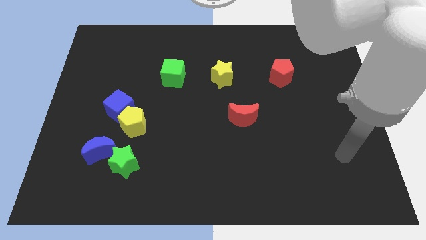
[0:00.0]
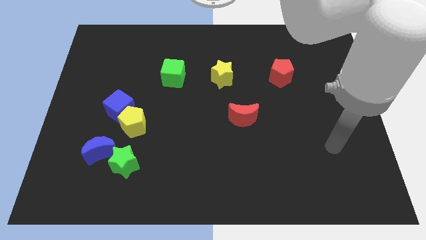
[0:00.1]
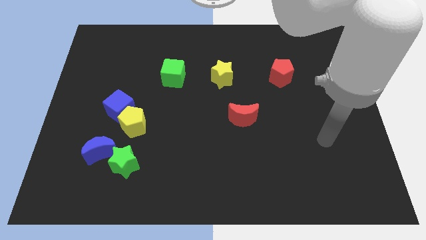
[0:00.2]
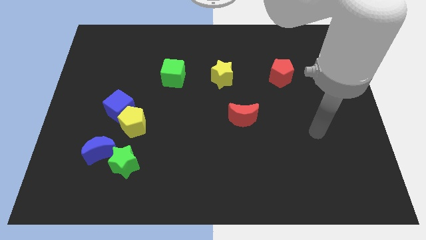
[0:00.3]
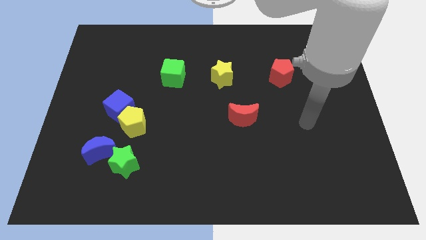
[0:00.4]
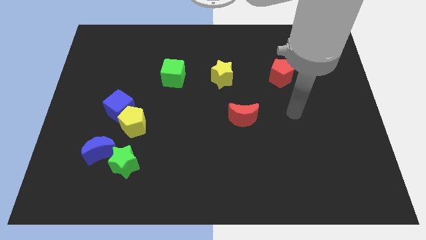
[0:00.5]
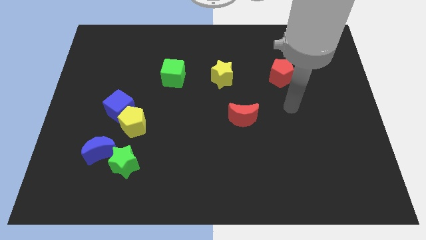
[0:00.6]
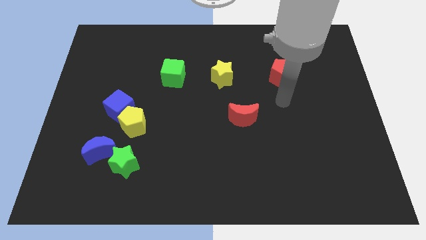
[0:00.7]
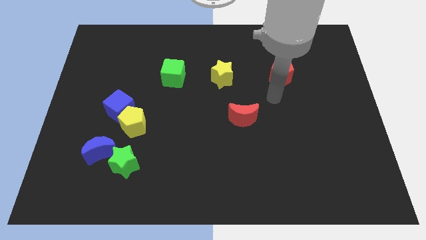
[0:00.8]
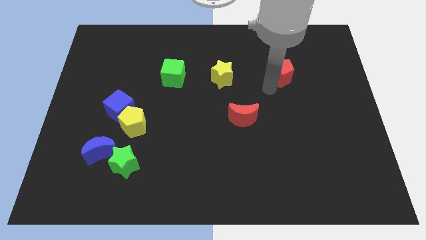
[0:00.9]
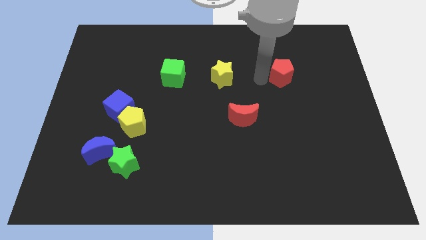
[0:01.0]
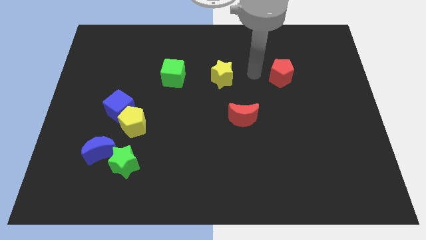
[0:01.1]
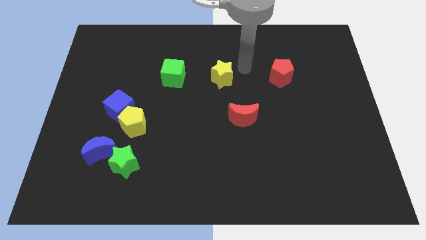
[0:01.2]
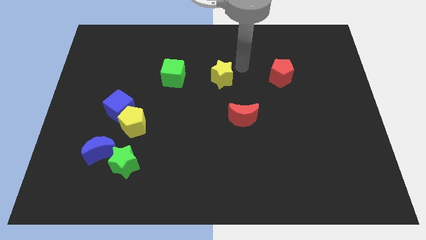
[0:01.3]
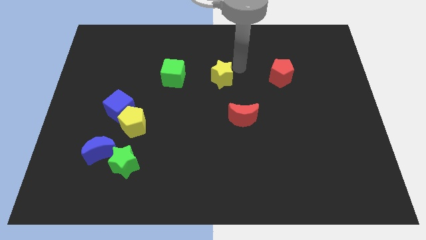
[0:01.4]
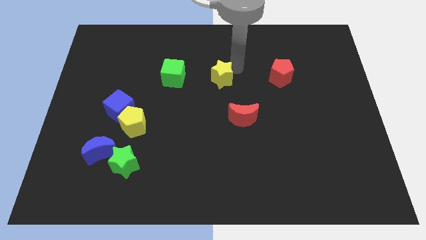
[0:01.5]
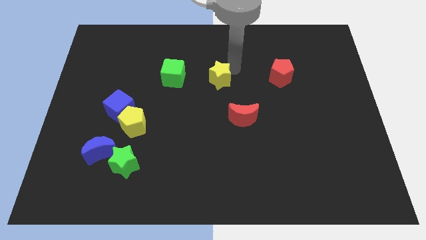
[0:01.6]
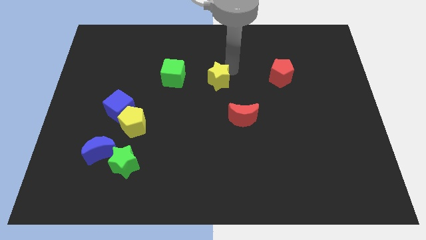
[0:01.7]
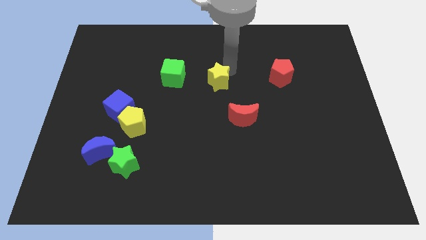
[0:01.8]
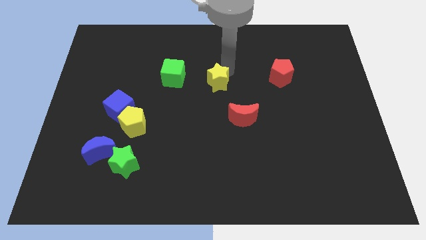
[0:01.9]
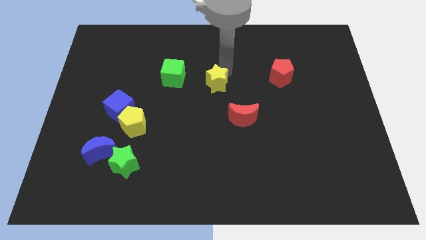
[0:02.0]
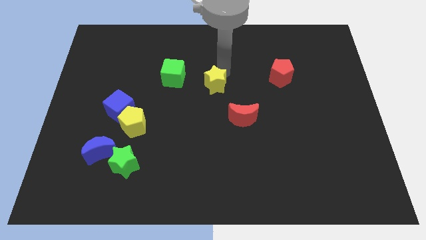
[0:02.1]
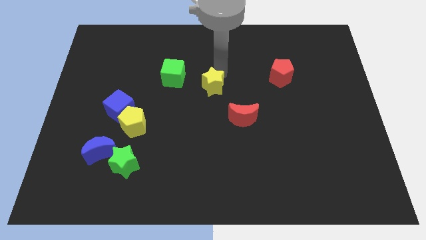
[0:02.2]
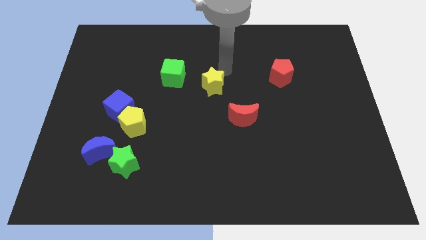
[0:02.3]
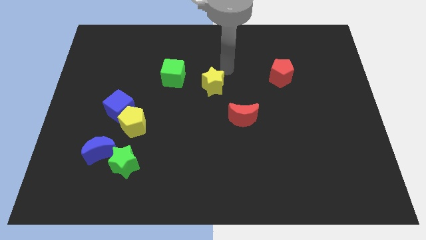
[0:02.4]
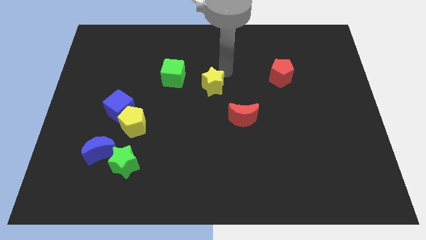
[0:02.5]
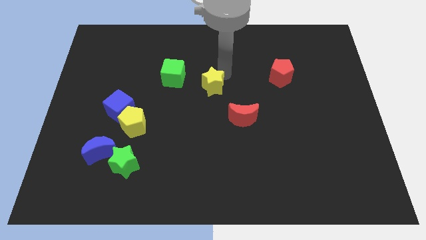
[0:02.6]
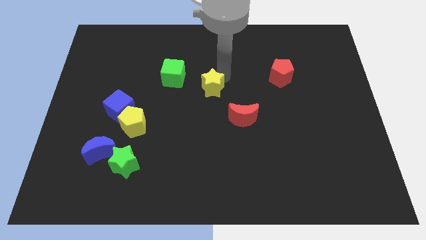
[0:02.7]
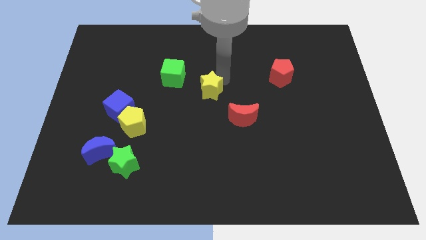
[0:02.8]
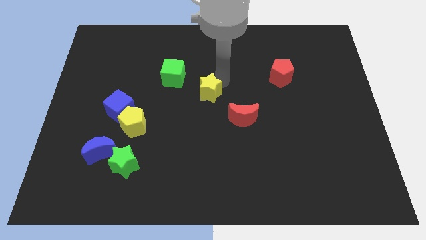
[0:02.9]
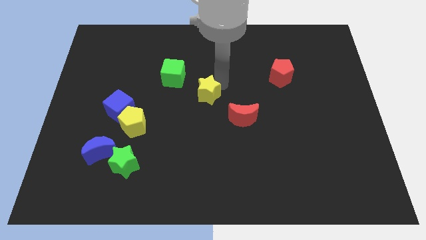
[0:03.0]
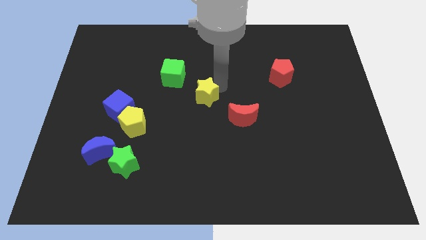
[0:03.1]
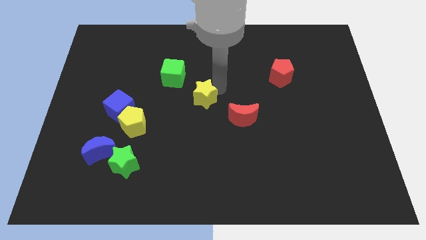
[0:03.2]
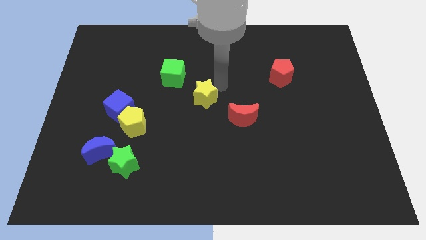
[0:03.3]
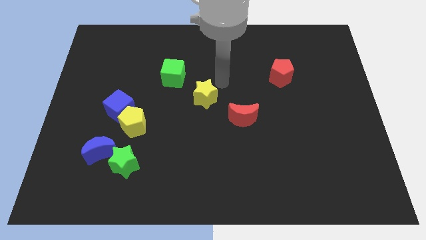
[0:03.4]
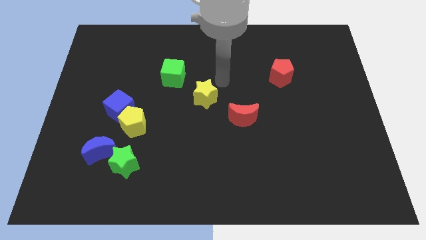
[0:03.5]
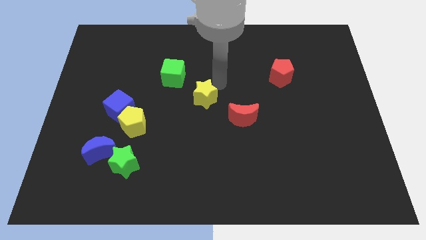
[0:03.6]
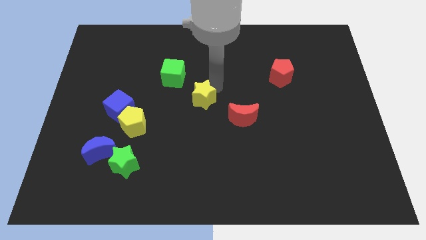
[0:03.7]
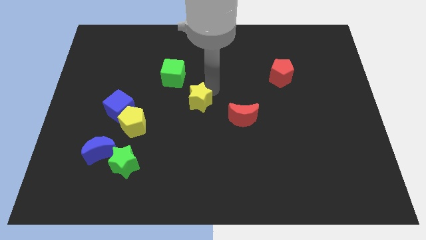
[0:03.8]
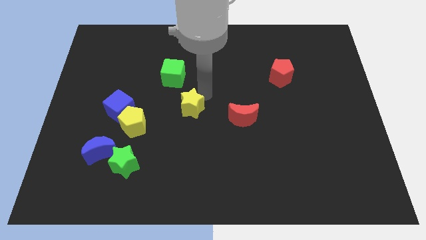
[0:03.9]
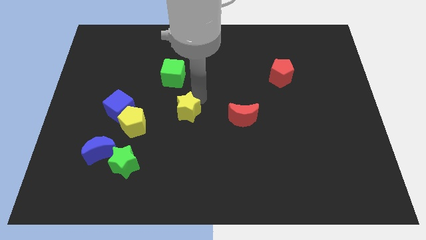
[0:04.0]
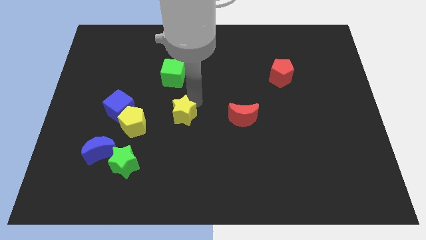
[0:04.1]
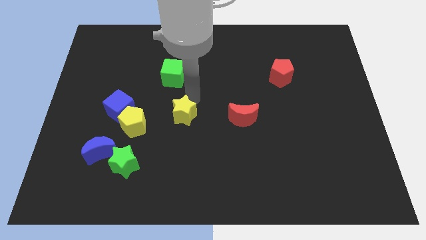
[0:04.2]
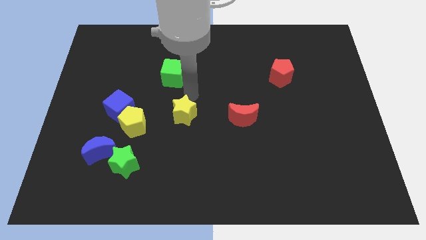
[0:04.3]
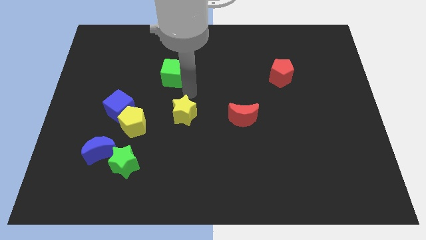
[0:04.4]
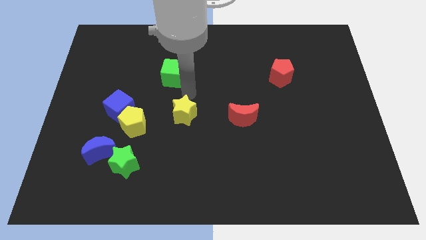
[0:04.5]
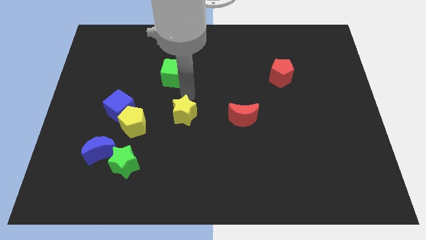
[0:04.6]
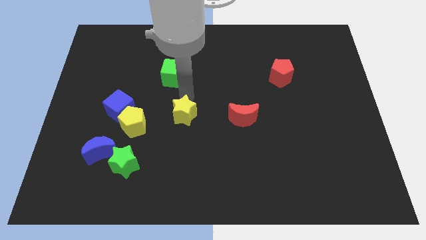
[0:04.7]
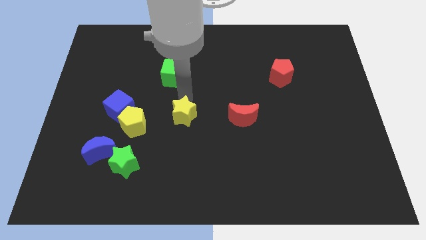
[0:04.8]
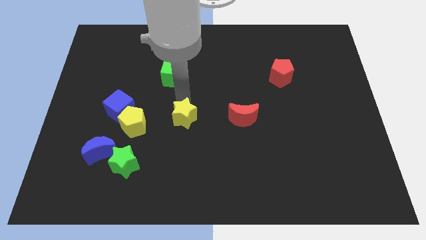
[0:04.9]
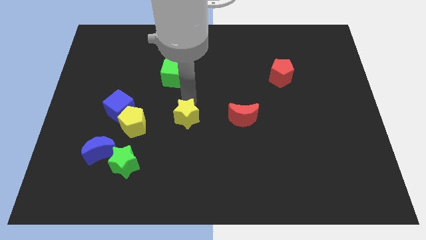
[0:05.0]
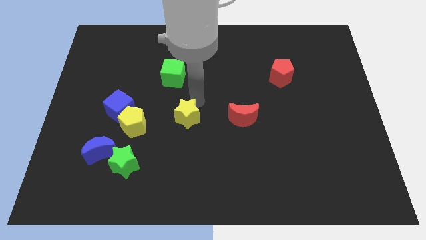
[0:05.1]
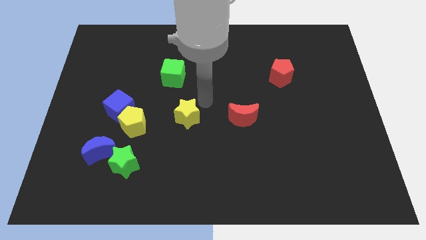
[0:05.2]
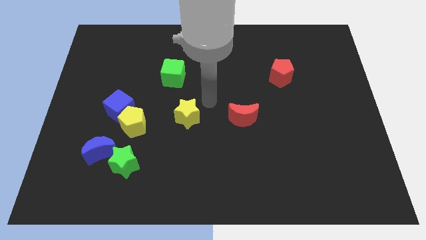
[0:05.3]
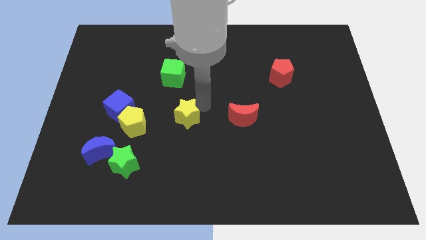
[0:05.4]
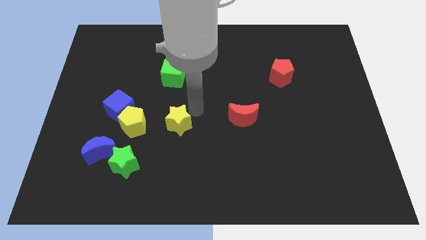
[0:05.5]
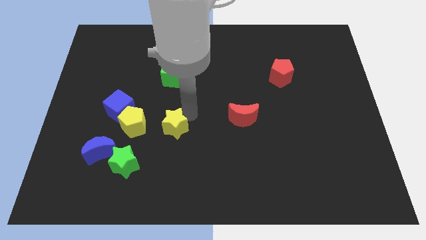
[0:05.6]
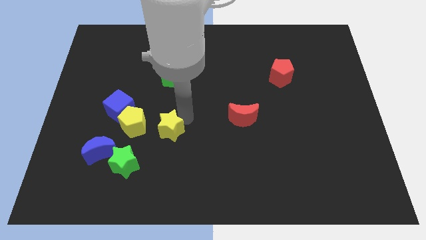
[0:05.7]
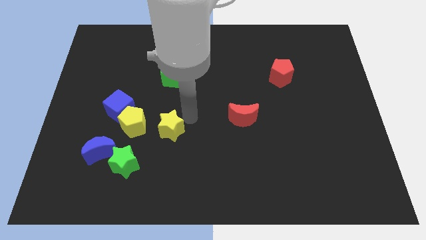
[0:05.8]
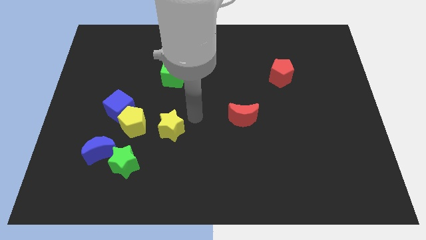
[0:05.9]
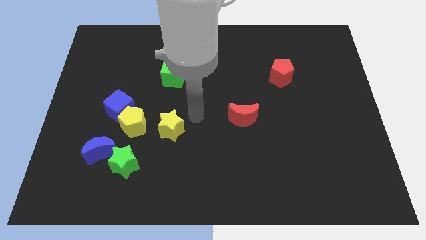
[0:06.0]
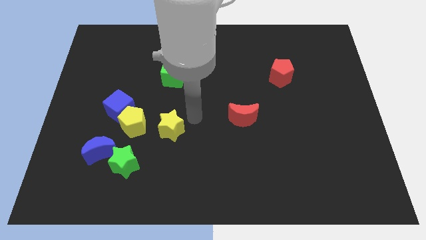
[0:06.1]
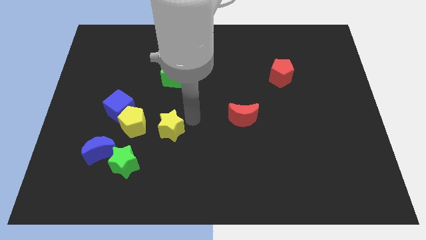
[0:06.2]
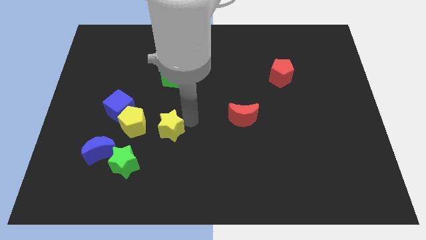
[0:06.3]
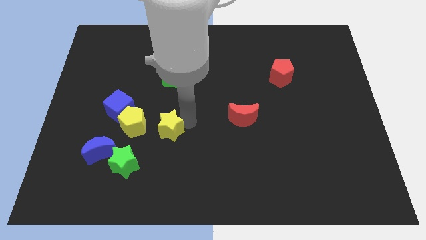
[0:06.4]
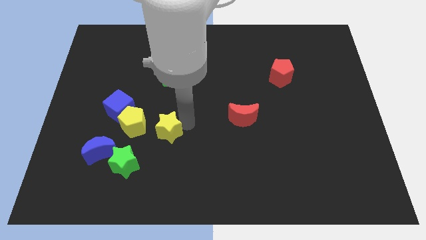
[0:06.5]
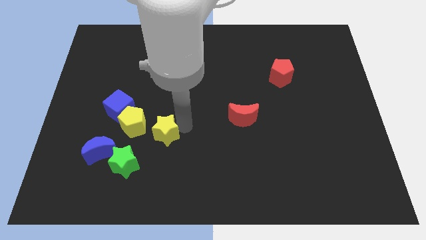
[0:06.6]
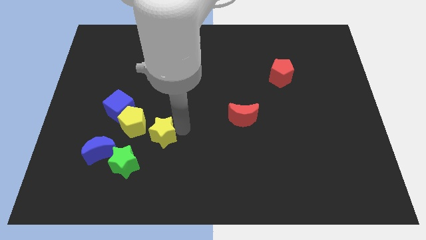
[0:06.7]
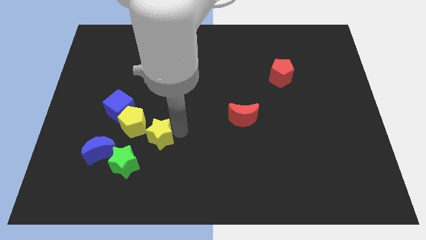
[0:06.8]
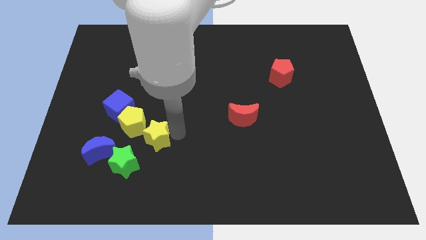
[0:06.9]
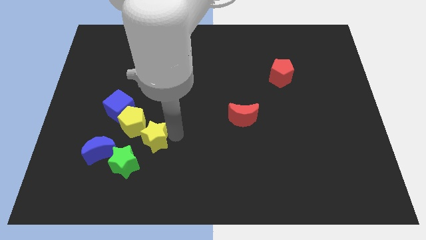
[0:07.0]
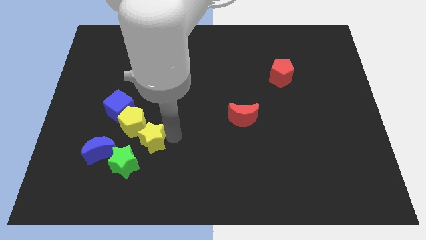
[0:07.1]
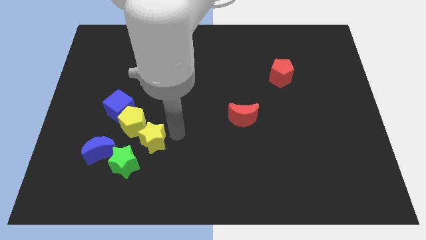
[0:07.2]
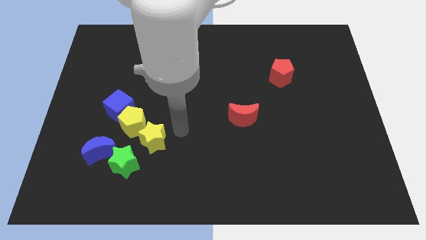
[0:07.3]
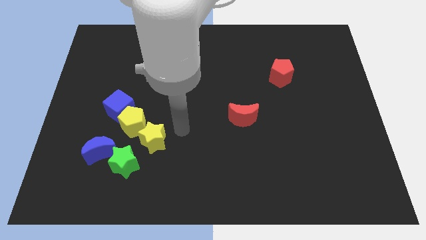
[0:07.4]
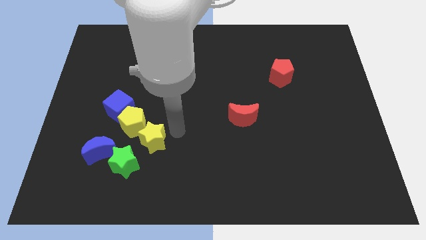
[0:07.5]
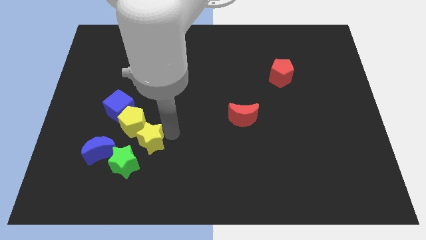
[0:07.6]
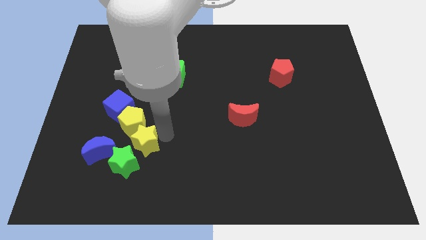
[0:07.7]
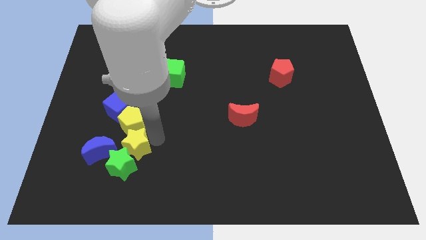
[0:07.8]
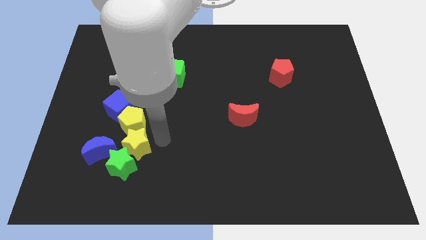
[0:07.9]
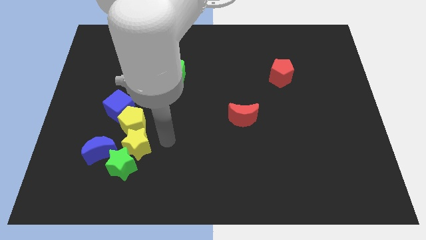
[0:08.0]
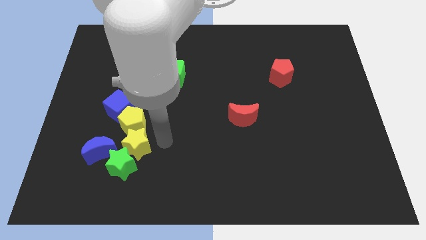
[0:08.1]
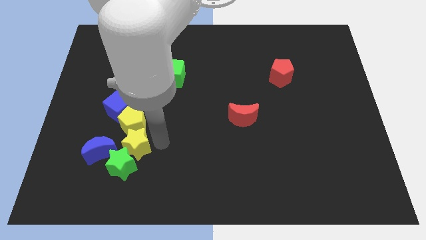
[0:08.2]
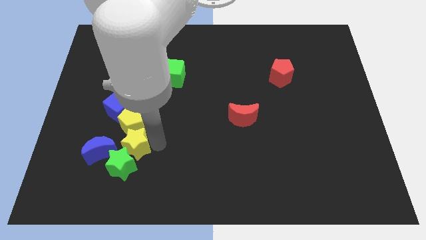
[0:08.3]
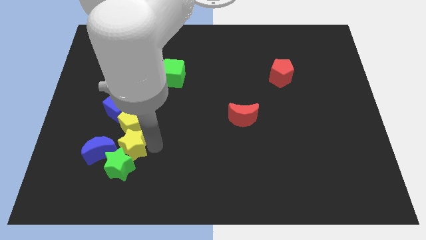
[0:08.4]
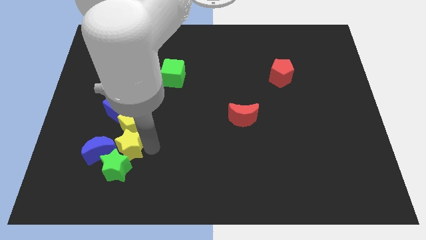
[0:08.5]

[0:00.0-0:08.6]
slide the yellow star towards the blue moon
